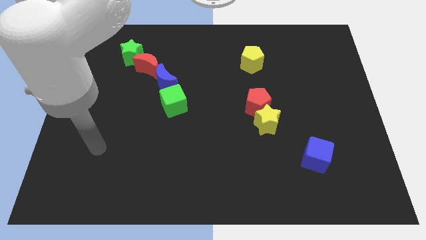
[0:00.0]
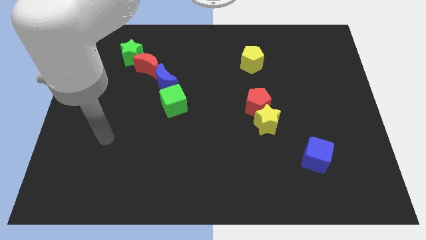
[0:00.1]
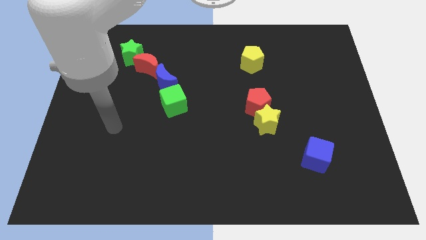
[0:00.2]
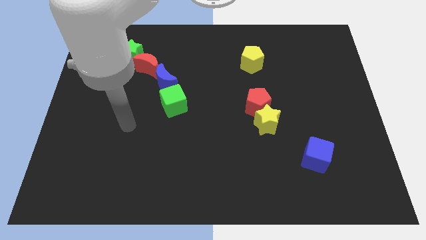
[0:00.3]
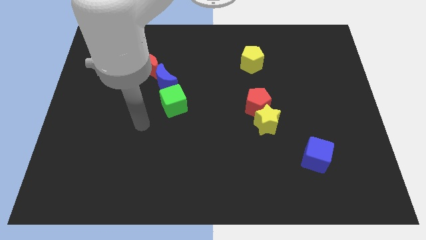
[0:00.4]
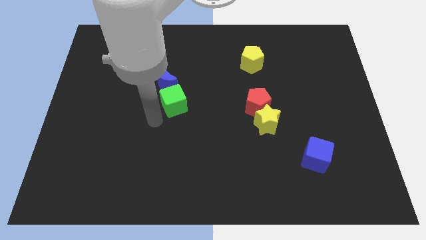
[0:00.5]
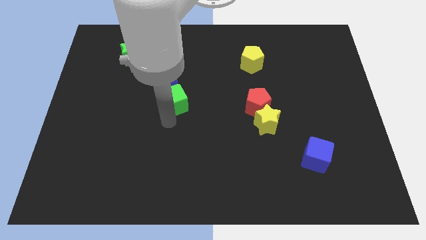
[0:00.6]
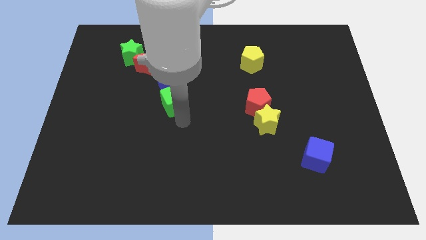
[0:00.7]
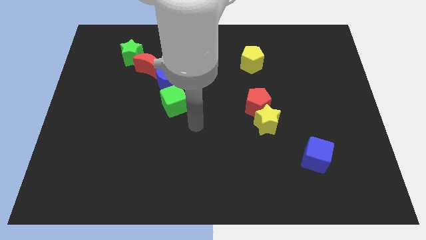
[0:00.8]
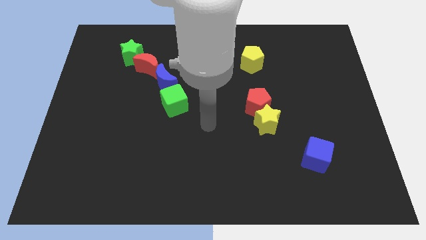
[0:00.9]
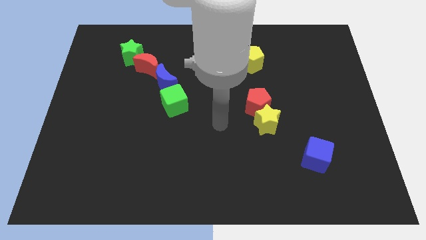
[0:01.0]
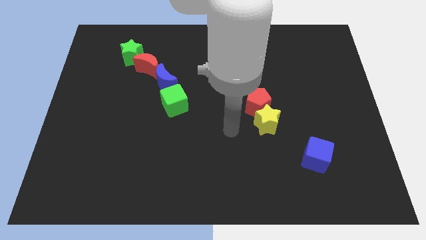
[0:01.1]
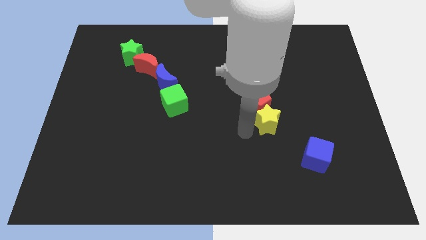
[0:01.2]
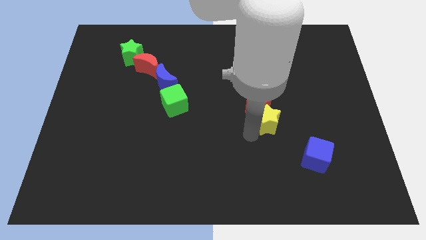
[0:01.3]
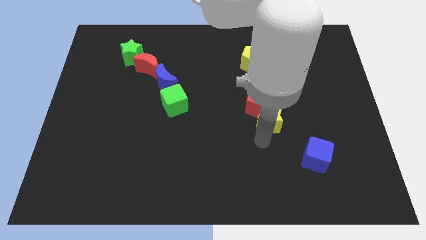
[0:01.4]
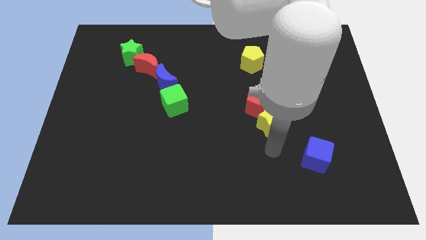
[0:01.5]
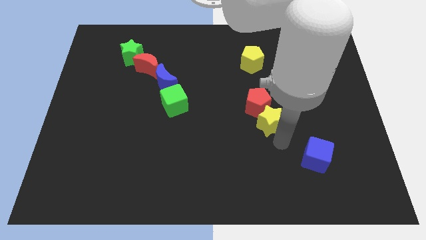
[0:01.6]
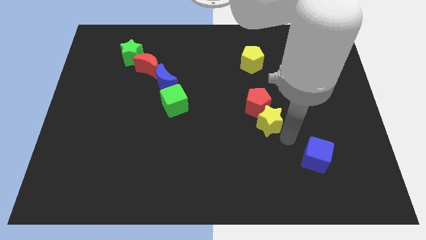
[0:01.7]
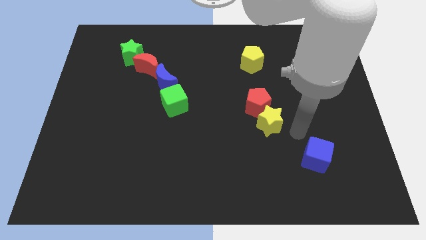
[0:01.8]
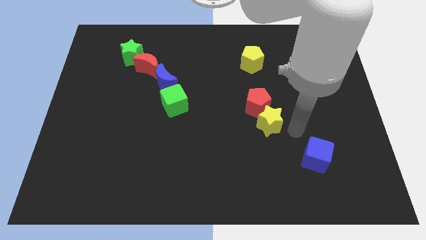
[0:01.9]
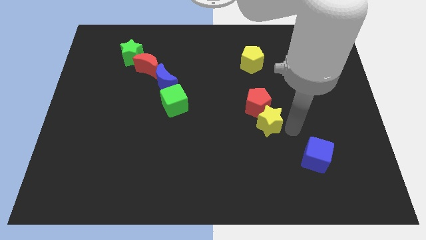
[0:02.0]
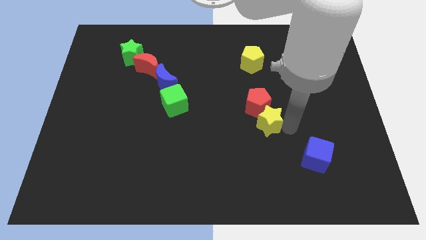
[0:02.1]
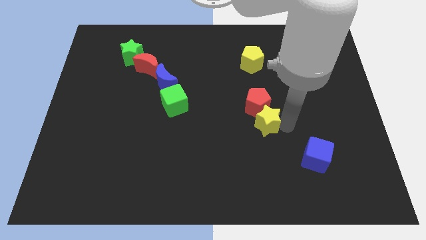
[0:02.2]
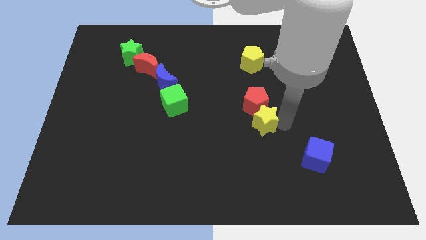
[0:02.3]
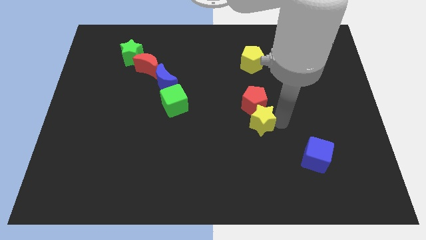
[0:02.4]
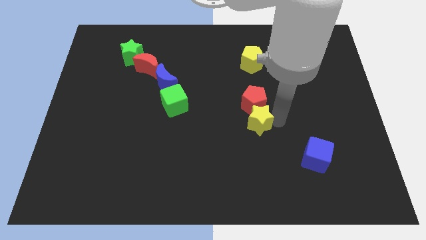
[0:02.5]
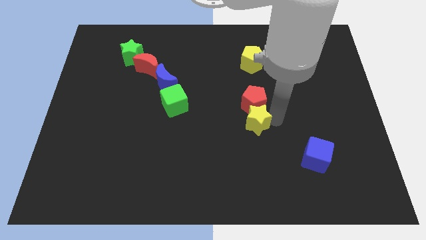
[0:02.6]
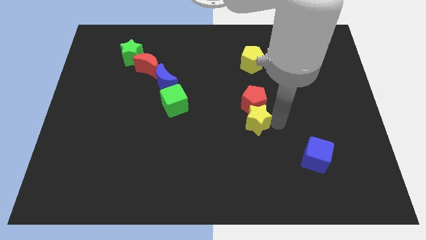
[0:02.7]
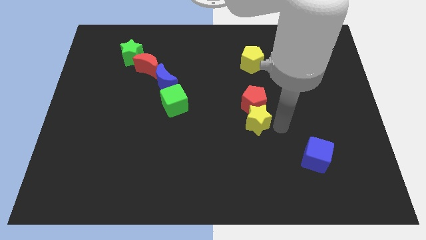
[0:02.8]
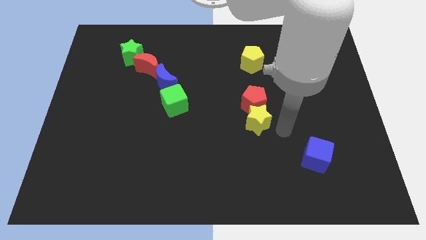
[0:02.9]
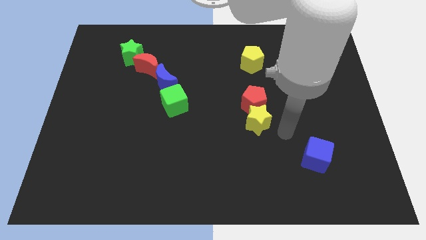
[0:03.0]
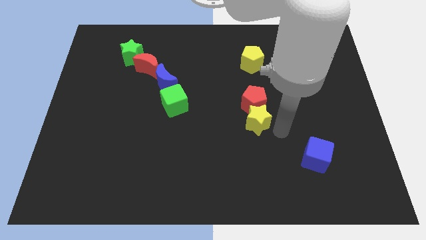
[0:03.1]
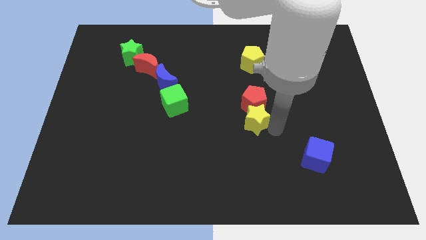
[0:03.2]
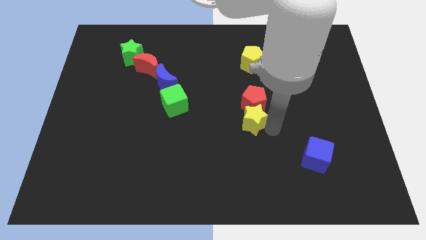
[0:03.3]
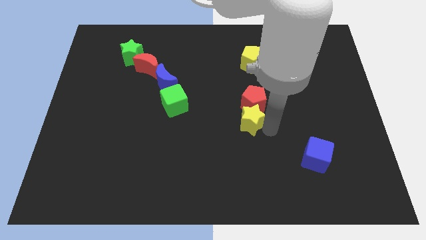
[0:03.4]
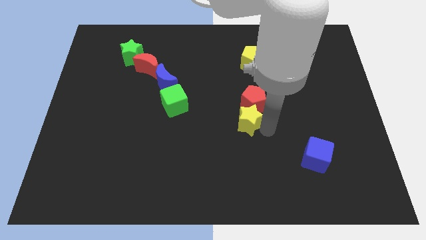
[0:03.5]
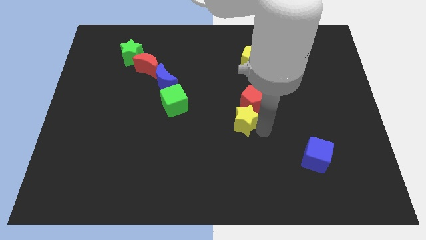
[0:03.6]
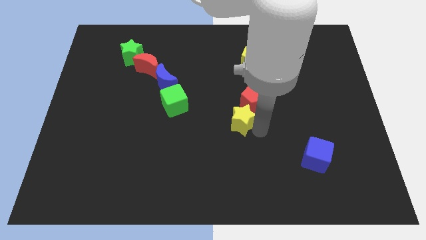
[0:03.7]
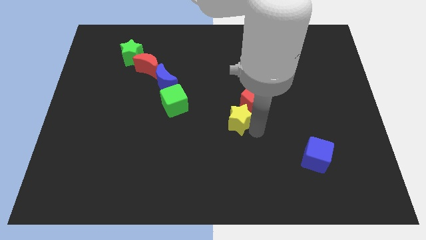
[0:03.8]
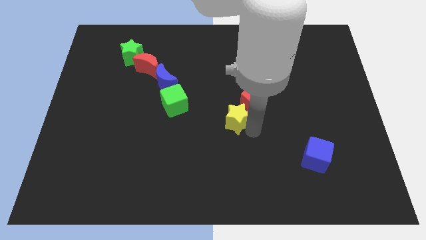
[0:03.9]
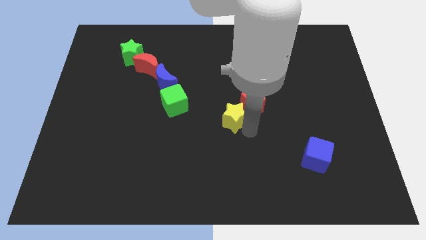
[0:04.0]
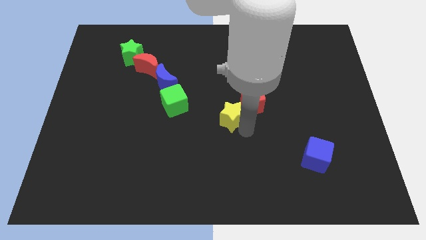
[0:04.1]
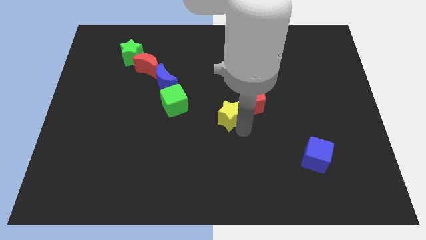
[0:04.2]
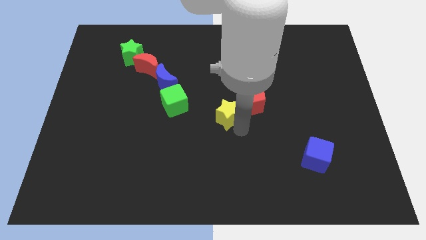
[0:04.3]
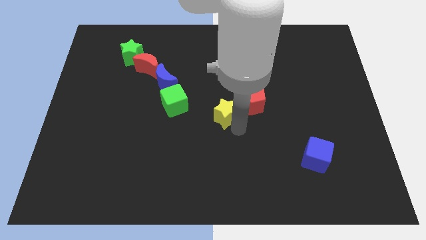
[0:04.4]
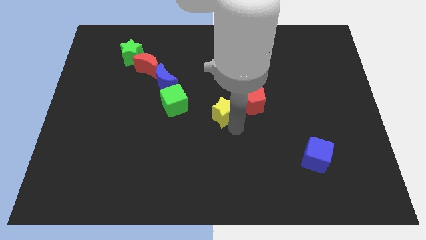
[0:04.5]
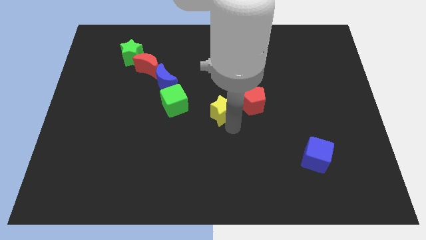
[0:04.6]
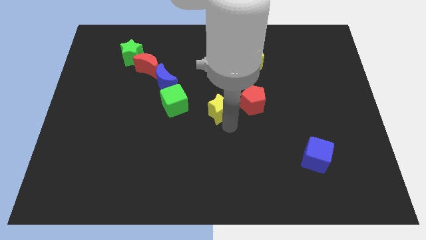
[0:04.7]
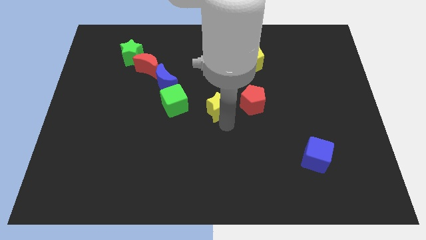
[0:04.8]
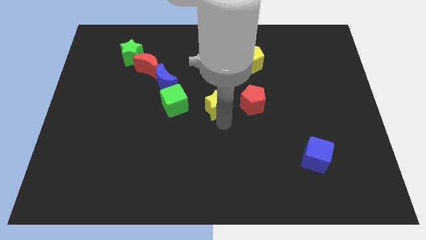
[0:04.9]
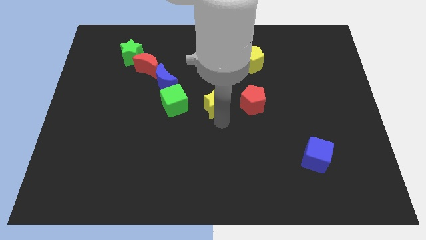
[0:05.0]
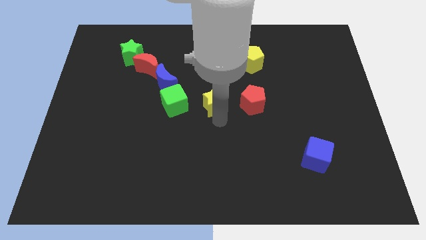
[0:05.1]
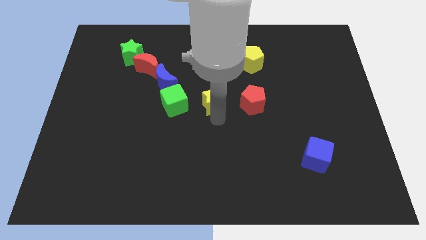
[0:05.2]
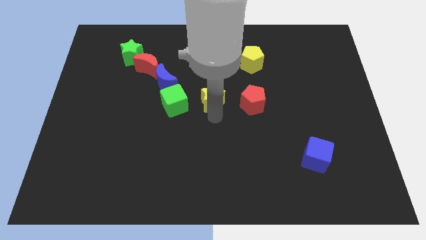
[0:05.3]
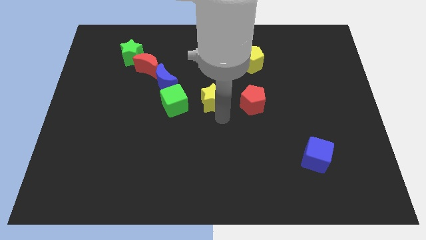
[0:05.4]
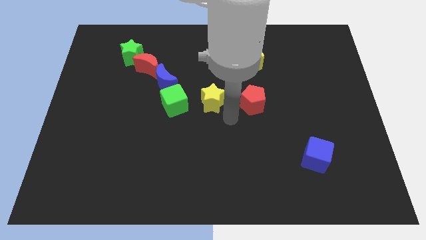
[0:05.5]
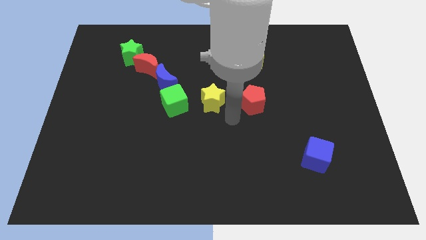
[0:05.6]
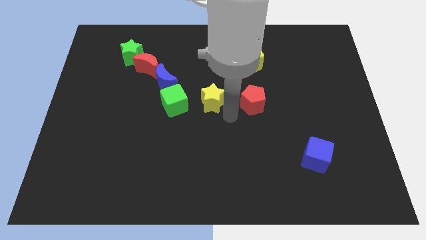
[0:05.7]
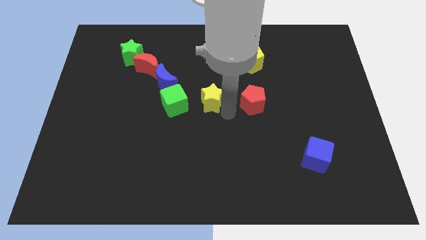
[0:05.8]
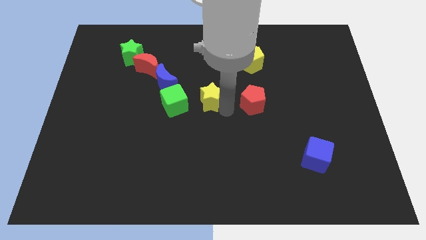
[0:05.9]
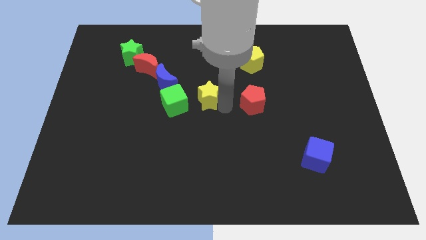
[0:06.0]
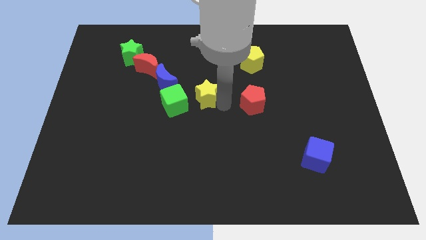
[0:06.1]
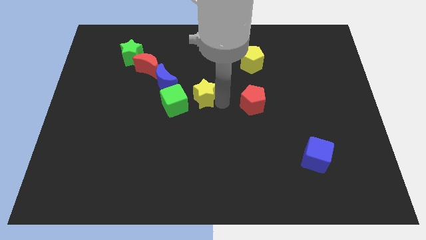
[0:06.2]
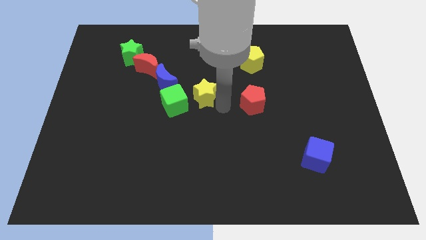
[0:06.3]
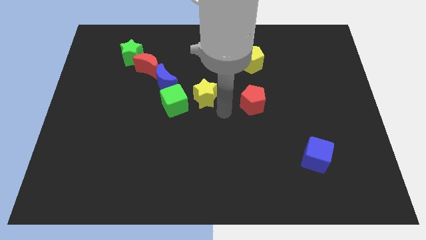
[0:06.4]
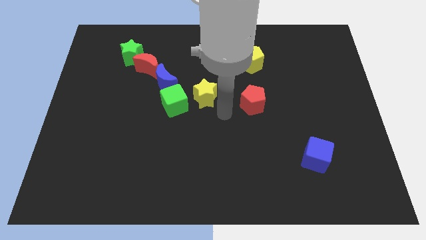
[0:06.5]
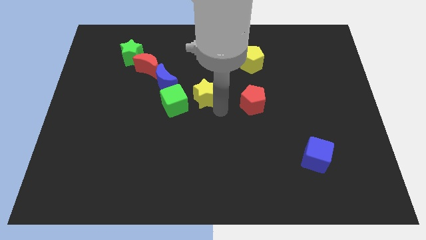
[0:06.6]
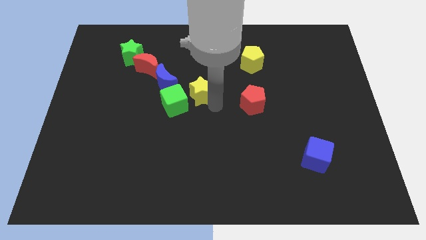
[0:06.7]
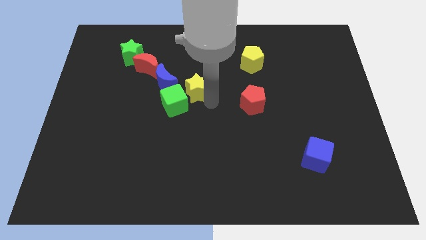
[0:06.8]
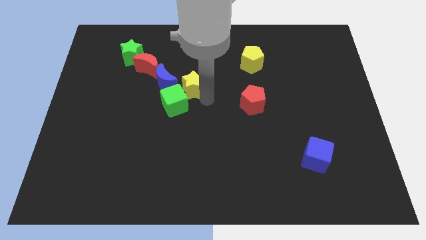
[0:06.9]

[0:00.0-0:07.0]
push the yellow star to the top side of the green cube

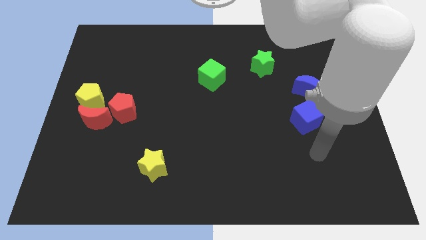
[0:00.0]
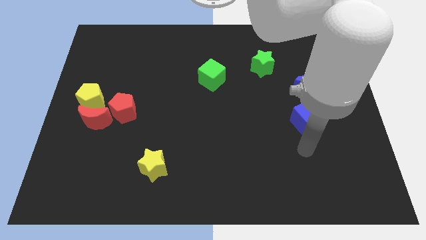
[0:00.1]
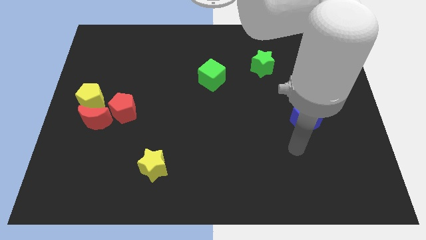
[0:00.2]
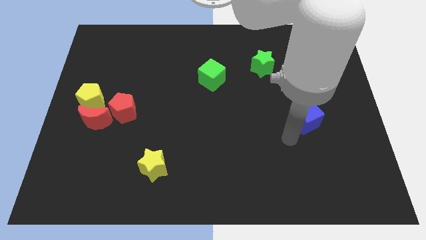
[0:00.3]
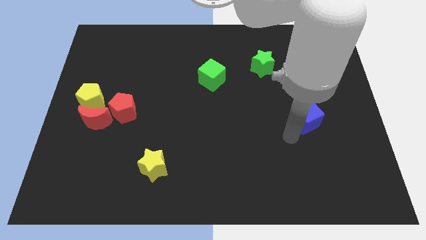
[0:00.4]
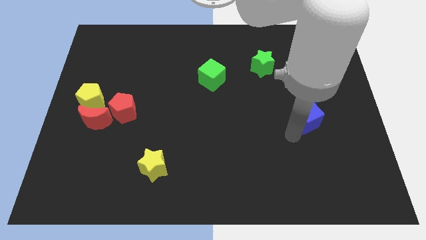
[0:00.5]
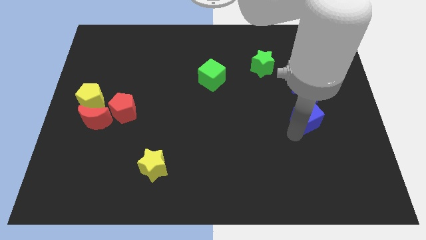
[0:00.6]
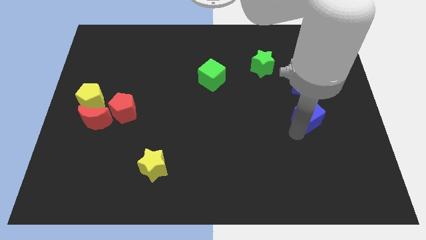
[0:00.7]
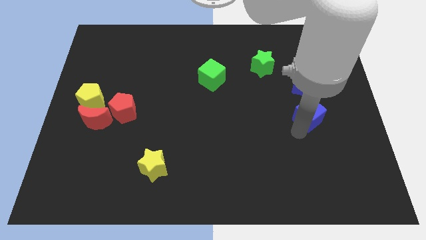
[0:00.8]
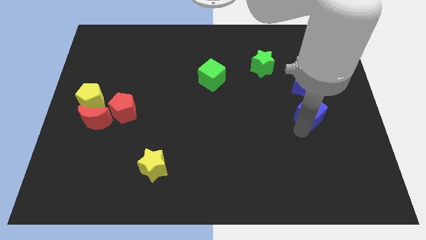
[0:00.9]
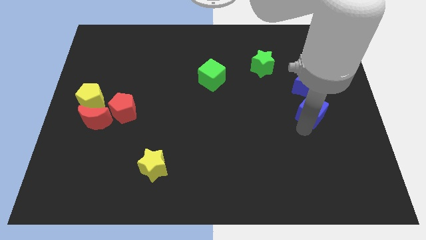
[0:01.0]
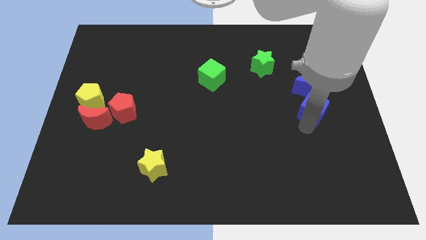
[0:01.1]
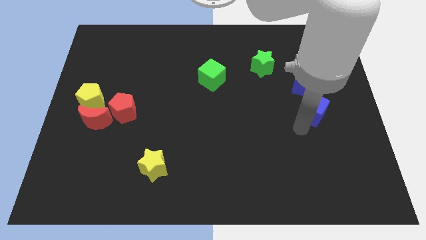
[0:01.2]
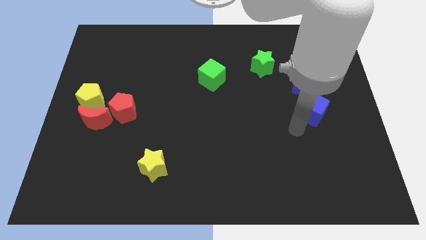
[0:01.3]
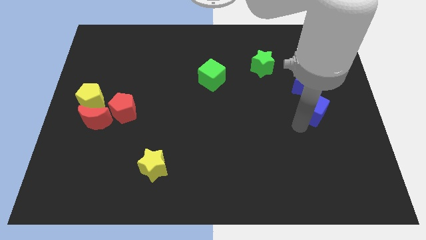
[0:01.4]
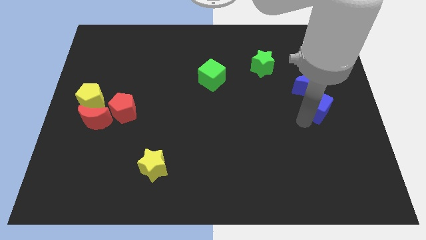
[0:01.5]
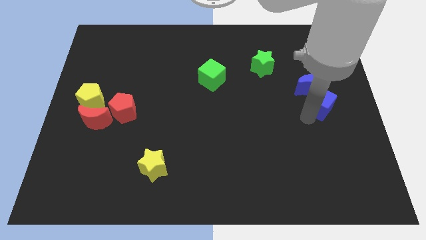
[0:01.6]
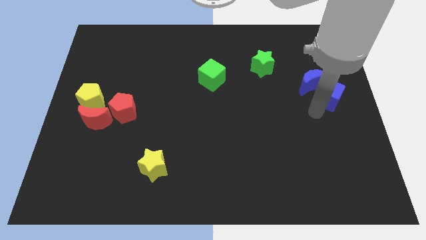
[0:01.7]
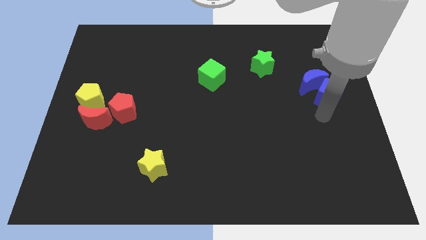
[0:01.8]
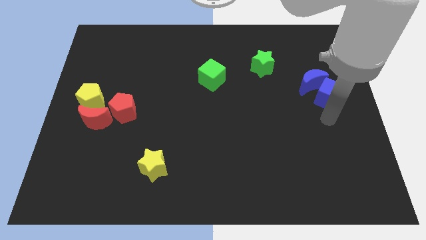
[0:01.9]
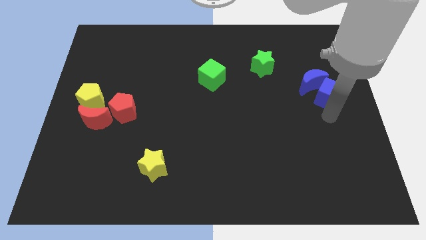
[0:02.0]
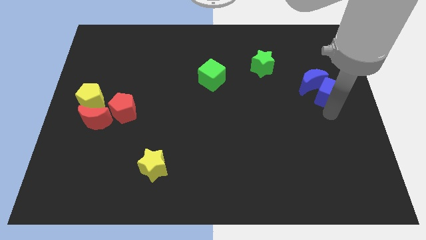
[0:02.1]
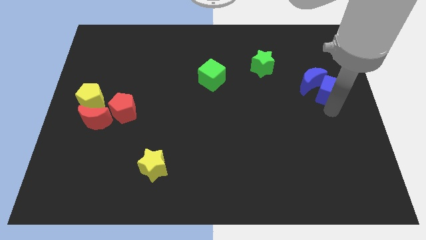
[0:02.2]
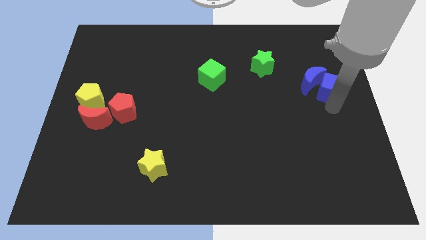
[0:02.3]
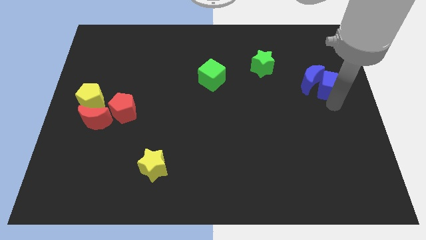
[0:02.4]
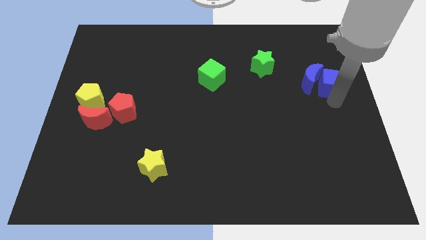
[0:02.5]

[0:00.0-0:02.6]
move the blue cube to the top right of the blue moon
